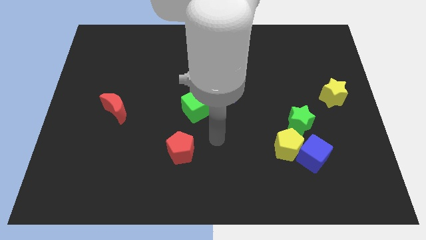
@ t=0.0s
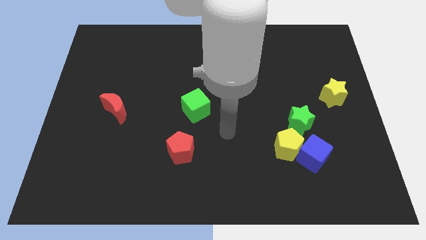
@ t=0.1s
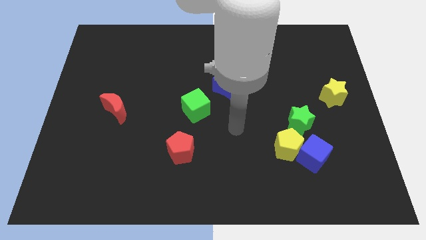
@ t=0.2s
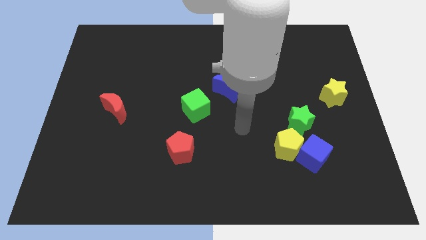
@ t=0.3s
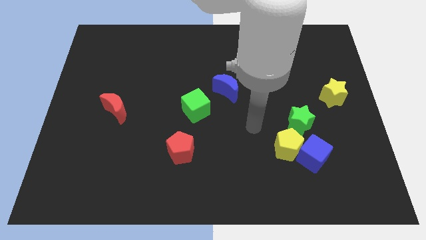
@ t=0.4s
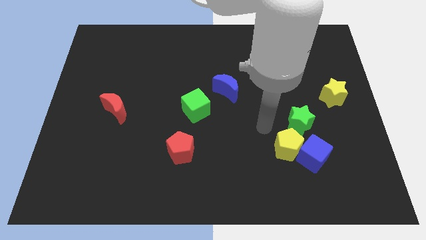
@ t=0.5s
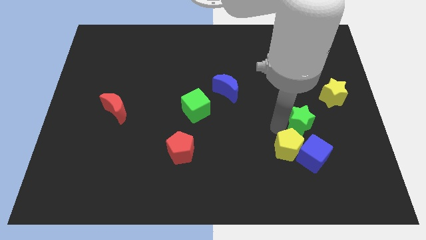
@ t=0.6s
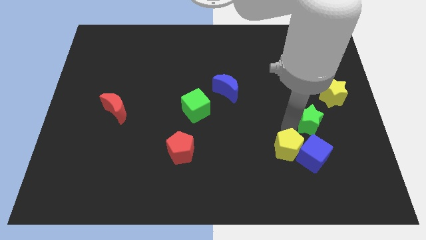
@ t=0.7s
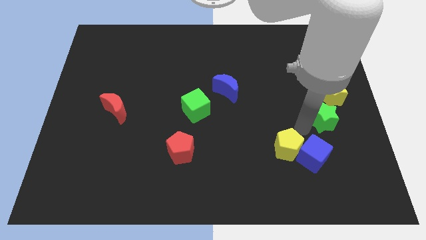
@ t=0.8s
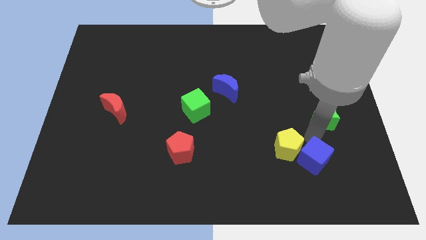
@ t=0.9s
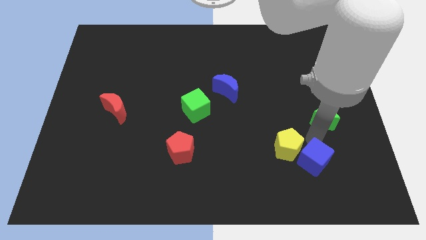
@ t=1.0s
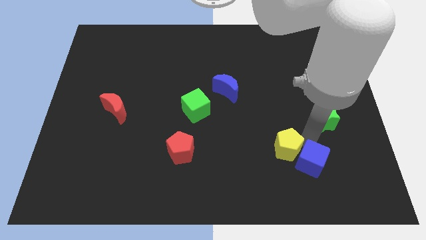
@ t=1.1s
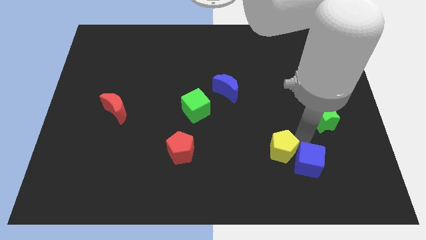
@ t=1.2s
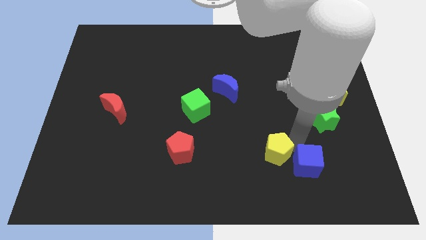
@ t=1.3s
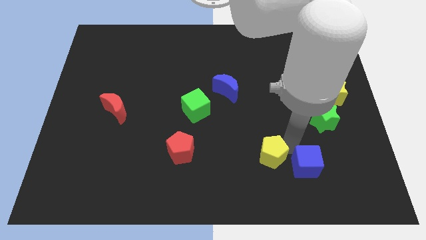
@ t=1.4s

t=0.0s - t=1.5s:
separate the yellow pentagon from the blue cube and green star

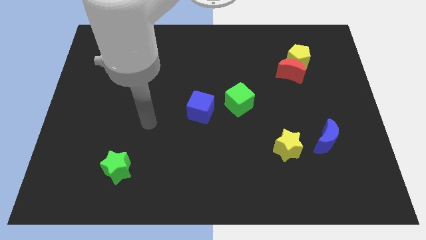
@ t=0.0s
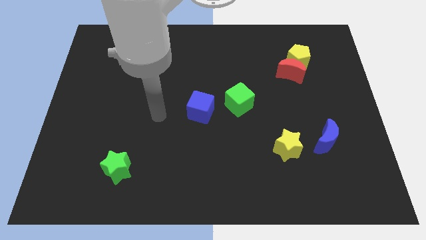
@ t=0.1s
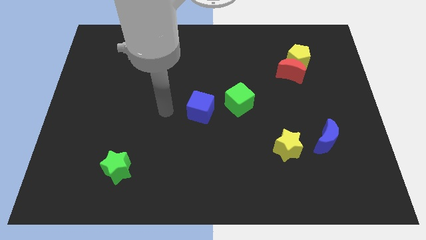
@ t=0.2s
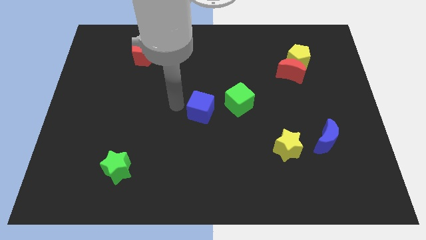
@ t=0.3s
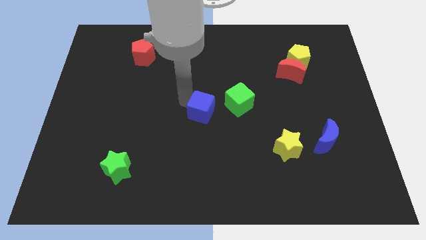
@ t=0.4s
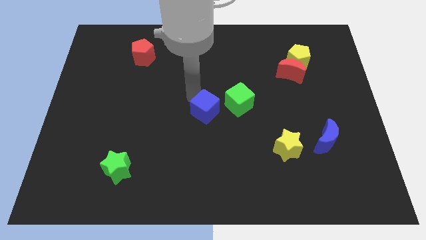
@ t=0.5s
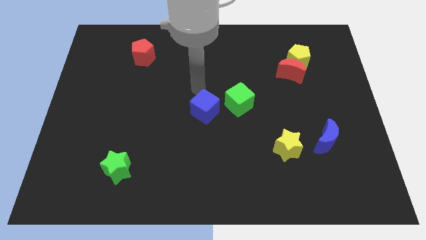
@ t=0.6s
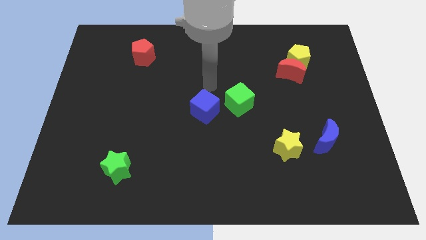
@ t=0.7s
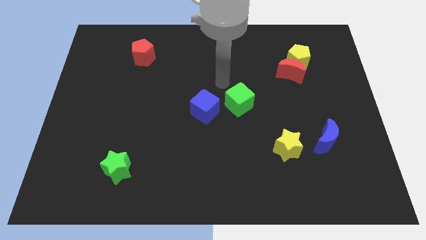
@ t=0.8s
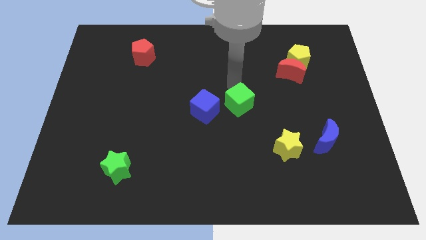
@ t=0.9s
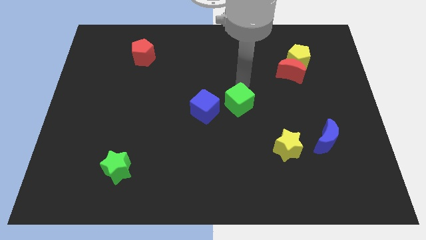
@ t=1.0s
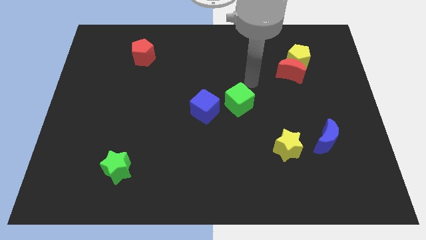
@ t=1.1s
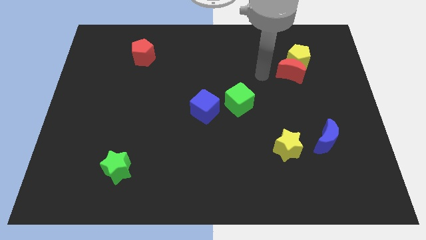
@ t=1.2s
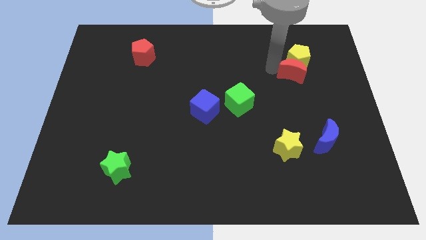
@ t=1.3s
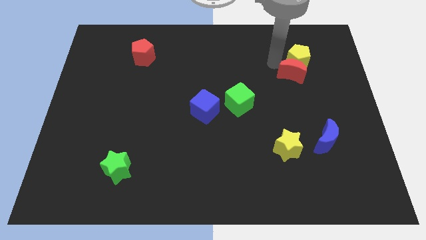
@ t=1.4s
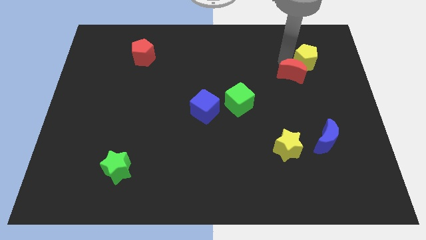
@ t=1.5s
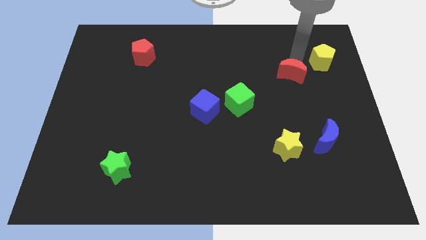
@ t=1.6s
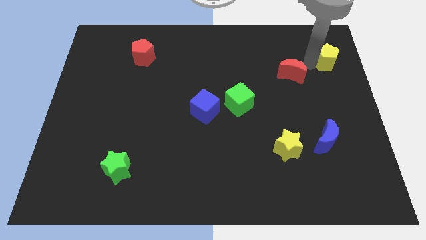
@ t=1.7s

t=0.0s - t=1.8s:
pull the red moon apart from the yellow pentagon

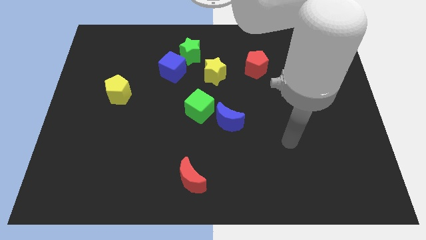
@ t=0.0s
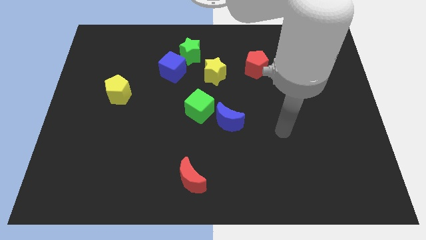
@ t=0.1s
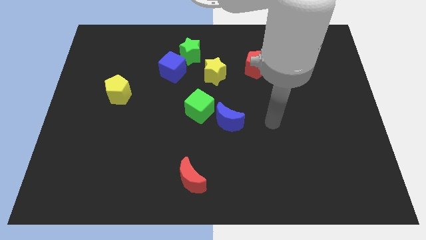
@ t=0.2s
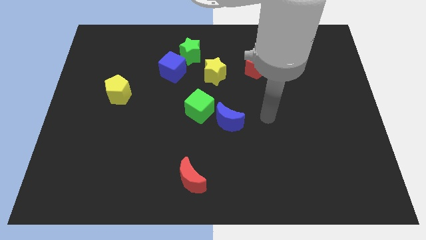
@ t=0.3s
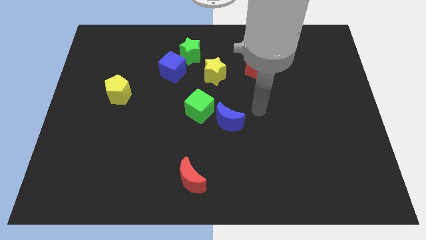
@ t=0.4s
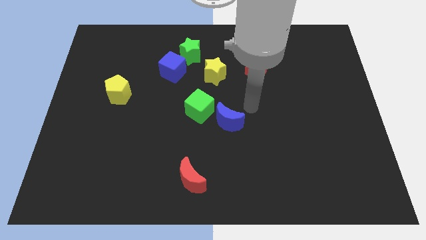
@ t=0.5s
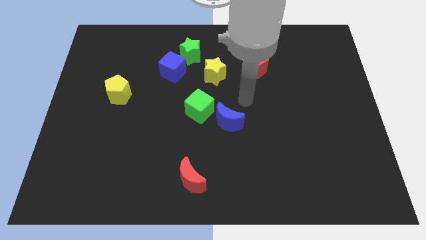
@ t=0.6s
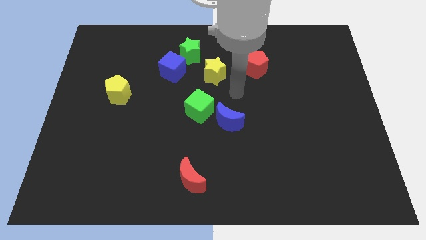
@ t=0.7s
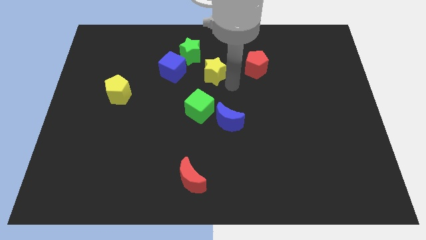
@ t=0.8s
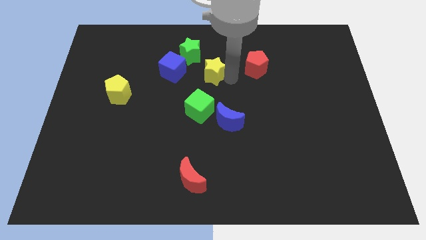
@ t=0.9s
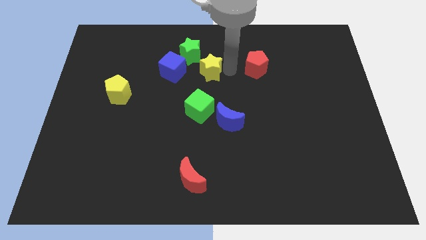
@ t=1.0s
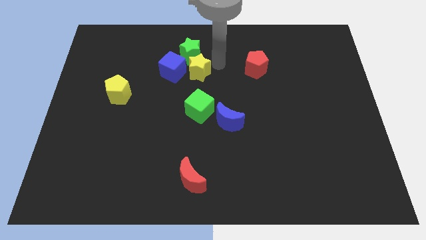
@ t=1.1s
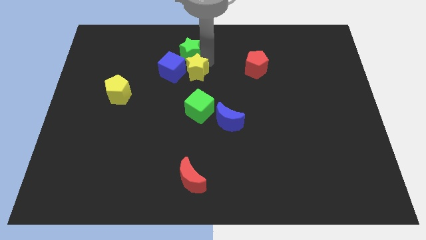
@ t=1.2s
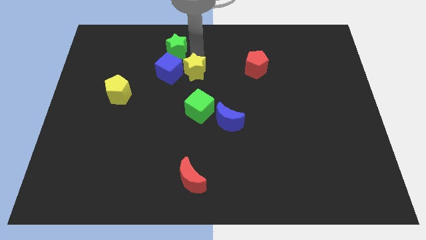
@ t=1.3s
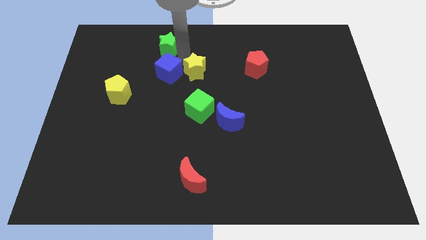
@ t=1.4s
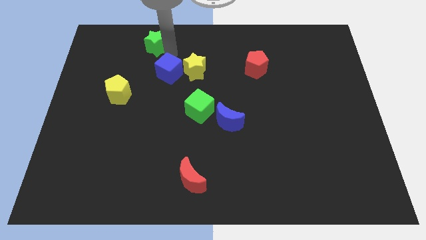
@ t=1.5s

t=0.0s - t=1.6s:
pull the blue cube apart from the green star

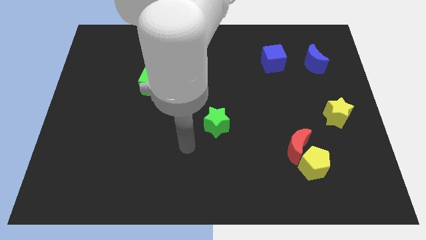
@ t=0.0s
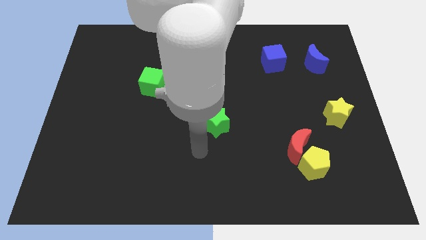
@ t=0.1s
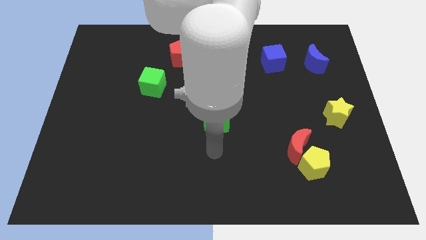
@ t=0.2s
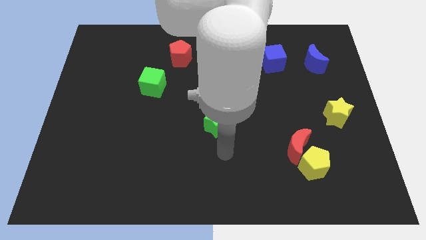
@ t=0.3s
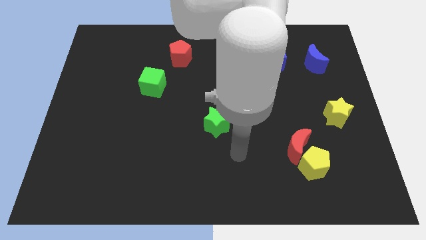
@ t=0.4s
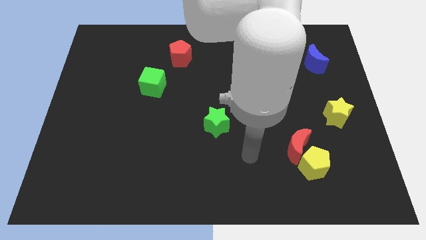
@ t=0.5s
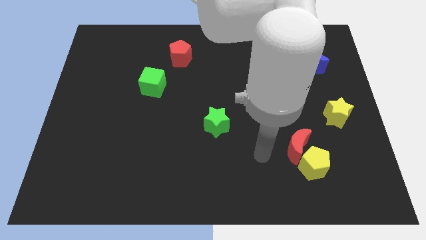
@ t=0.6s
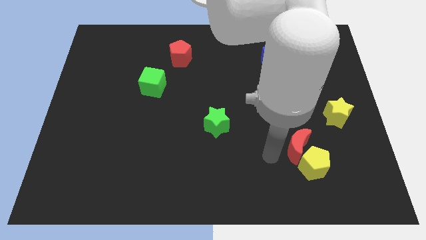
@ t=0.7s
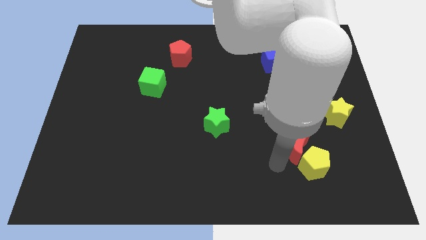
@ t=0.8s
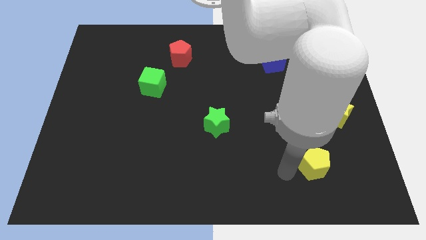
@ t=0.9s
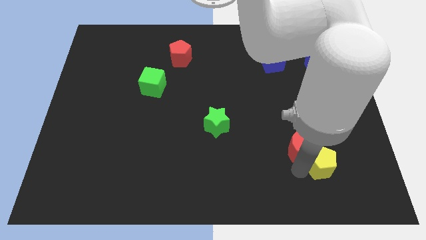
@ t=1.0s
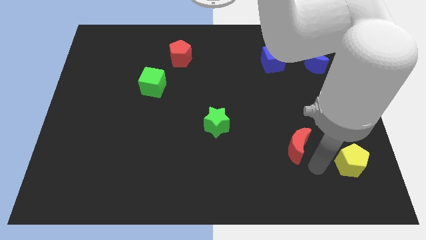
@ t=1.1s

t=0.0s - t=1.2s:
separate the red moon from the yellow pentagon

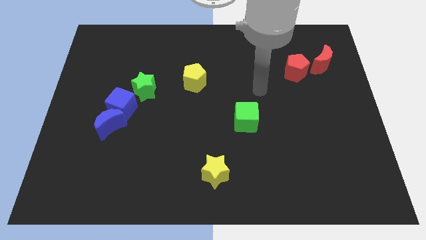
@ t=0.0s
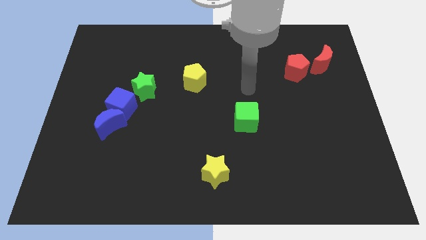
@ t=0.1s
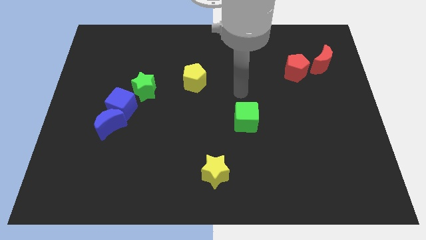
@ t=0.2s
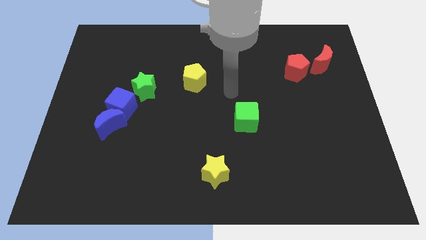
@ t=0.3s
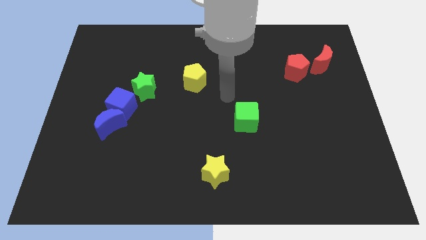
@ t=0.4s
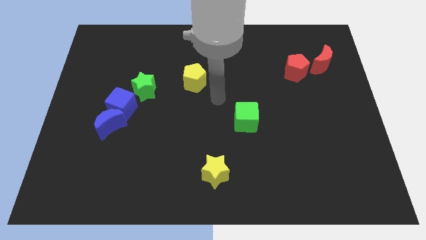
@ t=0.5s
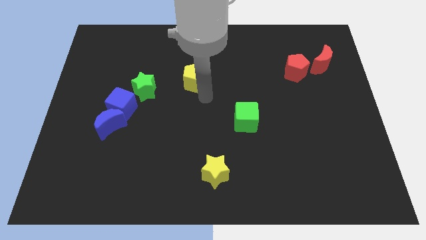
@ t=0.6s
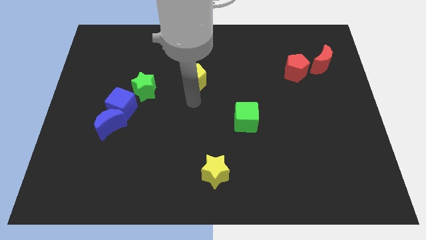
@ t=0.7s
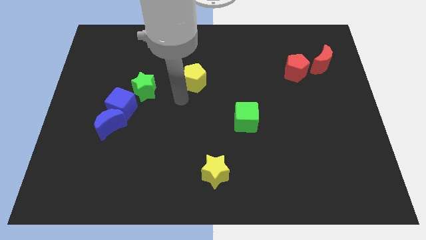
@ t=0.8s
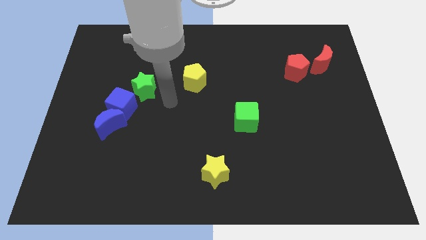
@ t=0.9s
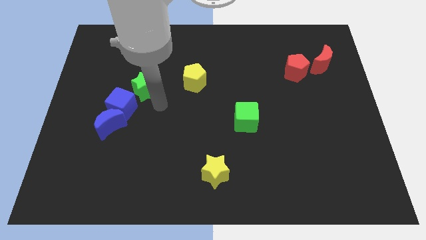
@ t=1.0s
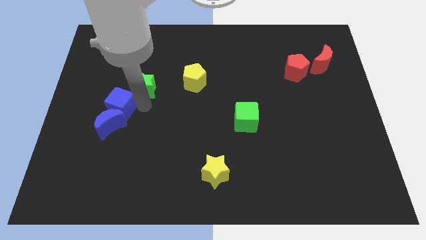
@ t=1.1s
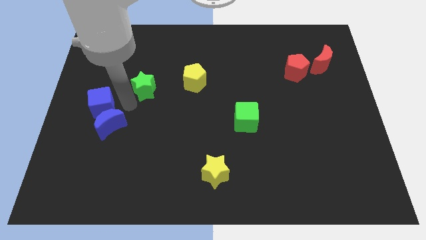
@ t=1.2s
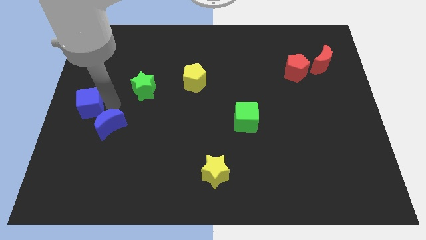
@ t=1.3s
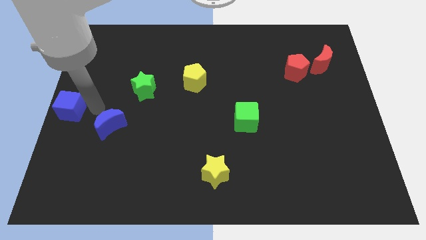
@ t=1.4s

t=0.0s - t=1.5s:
move the blue moon away from the blue cube

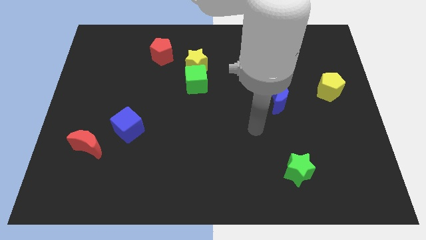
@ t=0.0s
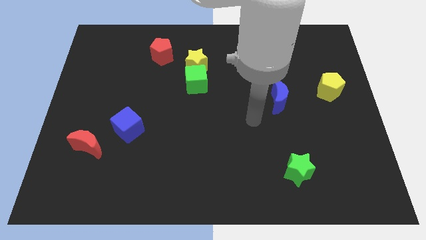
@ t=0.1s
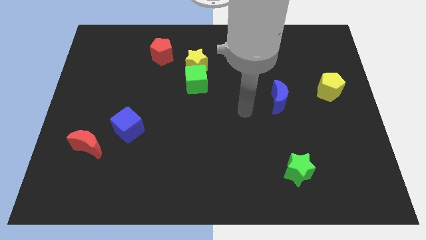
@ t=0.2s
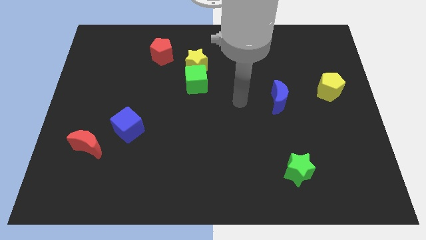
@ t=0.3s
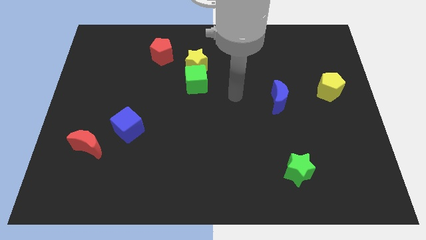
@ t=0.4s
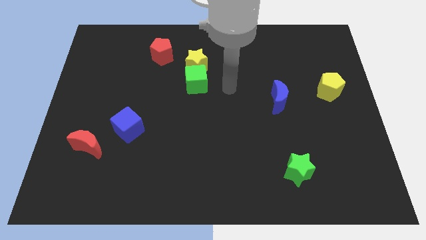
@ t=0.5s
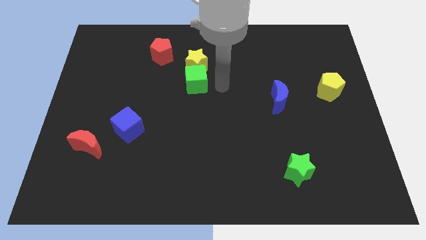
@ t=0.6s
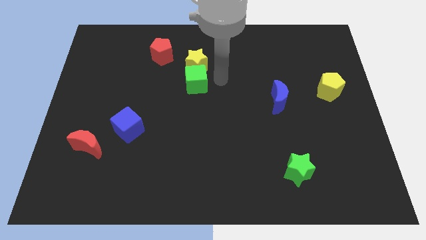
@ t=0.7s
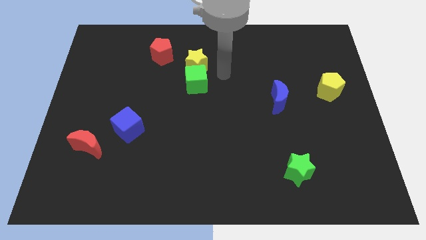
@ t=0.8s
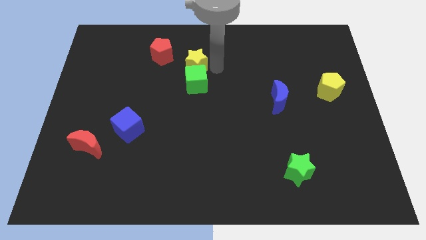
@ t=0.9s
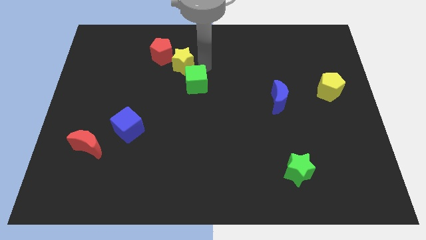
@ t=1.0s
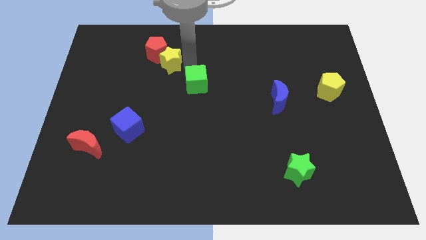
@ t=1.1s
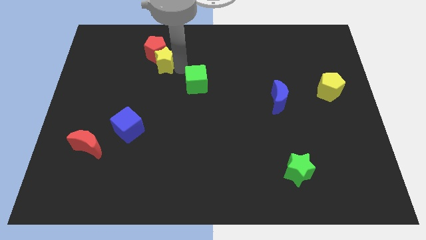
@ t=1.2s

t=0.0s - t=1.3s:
pull the green cube apart from the yellow star

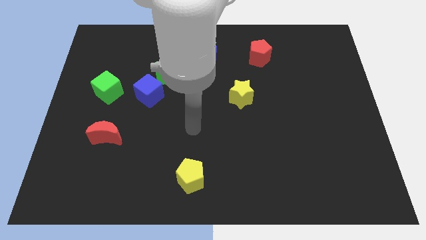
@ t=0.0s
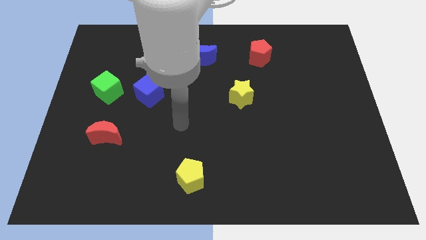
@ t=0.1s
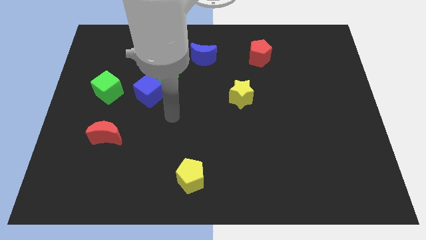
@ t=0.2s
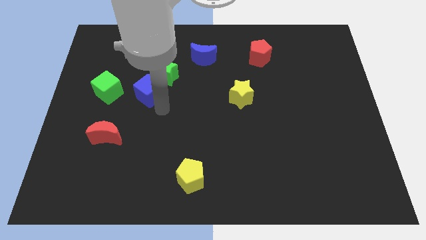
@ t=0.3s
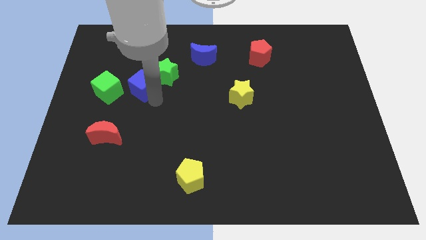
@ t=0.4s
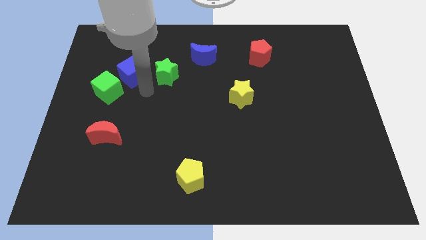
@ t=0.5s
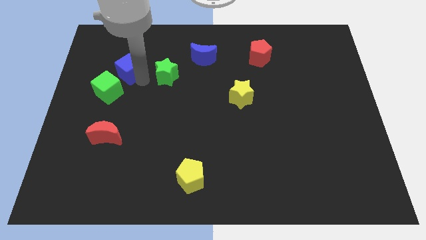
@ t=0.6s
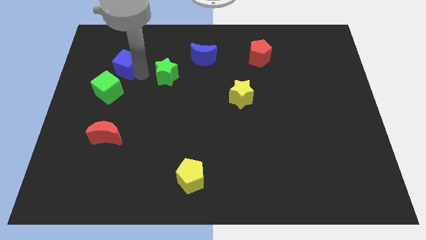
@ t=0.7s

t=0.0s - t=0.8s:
move the green star away from the blue cube
